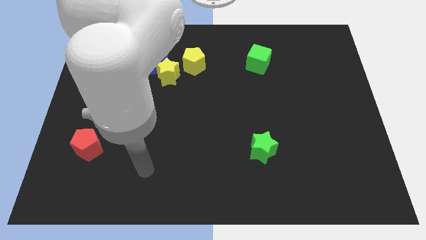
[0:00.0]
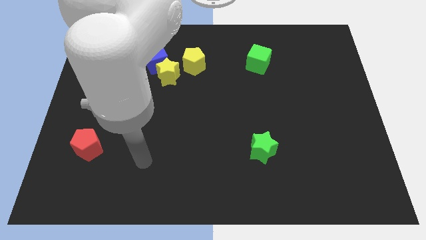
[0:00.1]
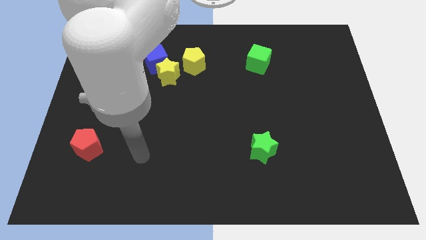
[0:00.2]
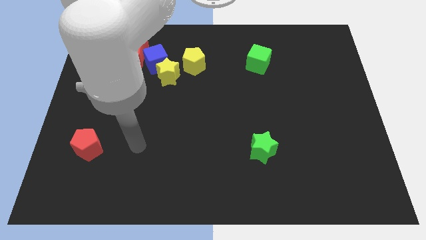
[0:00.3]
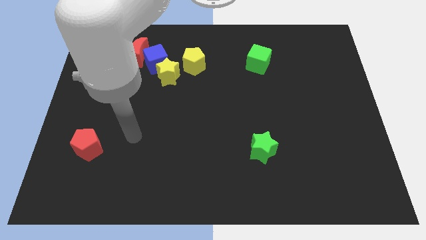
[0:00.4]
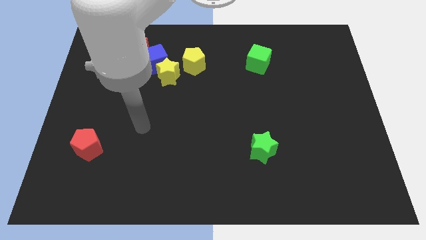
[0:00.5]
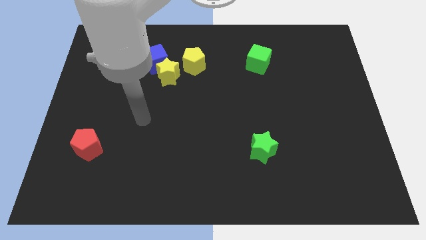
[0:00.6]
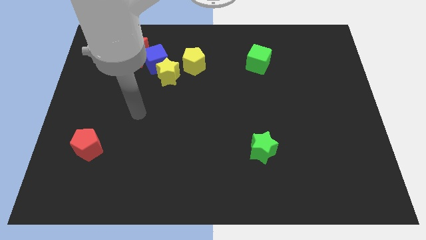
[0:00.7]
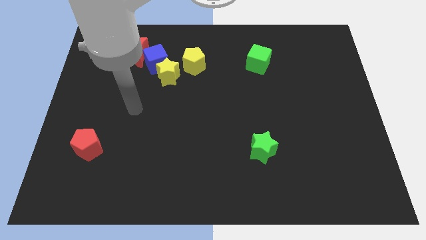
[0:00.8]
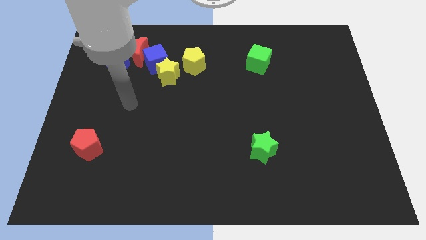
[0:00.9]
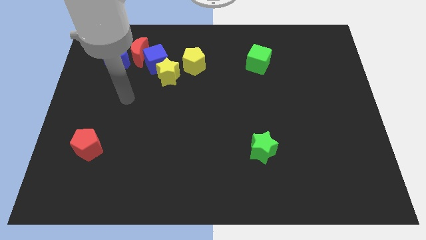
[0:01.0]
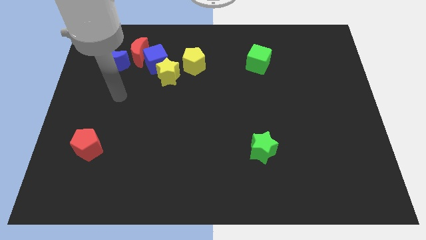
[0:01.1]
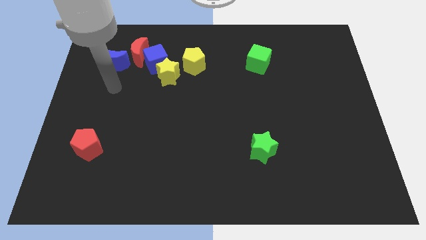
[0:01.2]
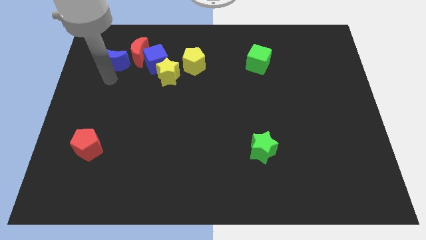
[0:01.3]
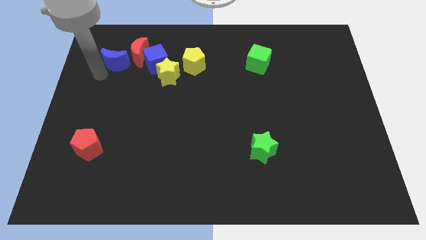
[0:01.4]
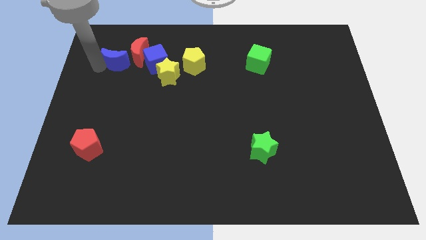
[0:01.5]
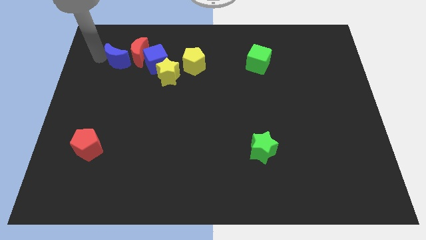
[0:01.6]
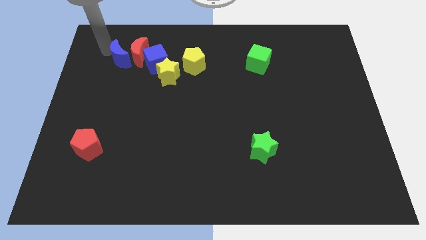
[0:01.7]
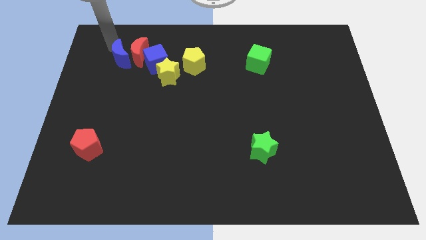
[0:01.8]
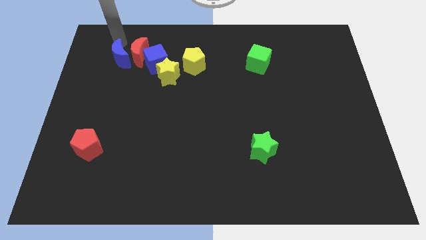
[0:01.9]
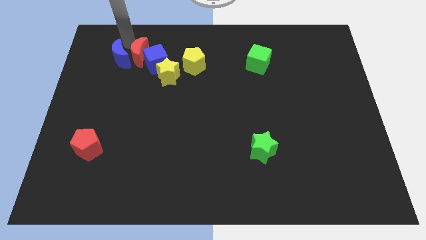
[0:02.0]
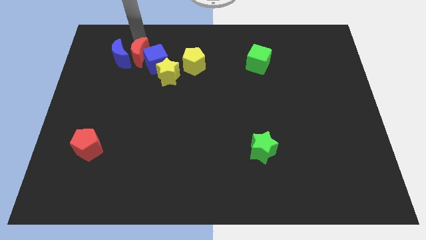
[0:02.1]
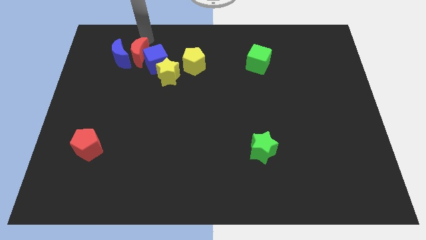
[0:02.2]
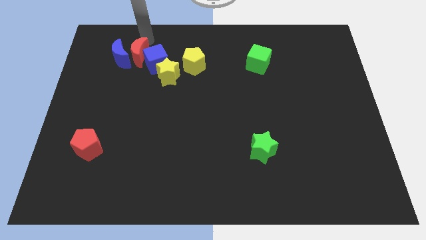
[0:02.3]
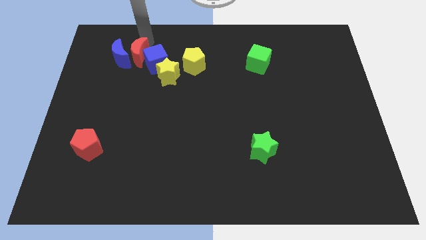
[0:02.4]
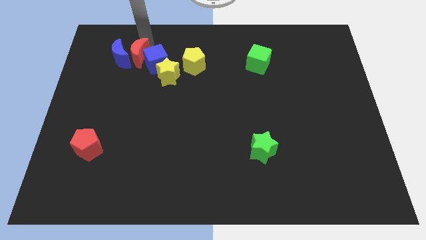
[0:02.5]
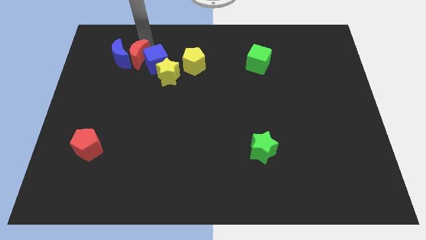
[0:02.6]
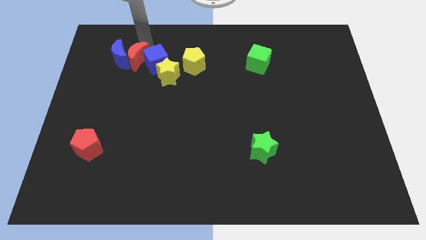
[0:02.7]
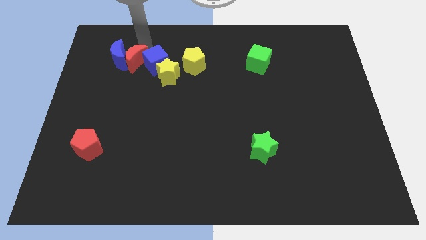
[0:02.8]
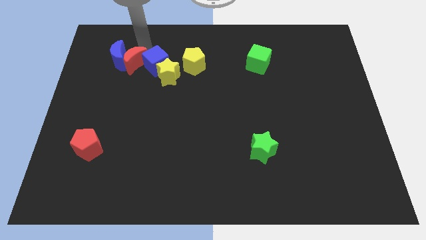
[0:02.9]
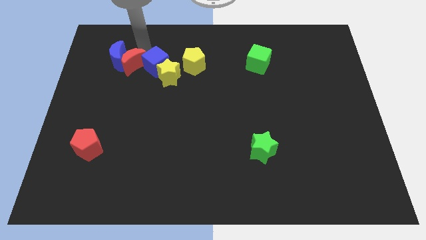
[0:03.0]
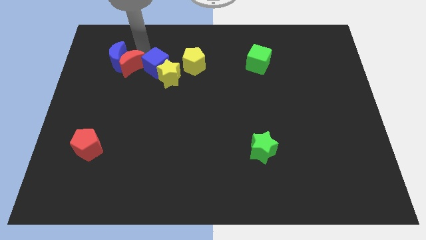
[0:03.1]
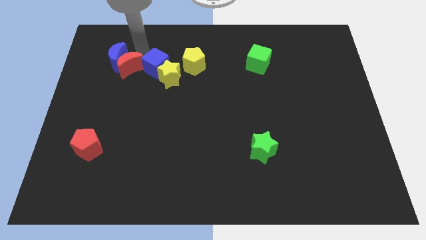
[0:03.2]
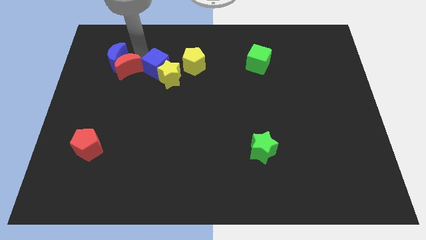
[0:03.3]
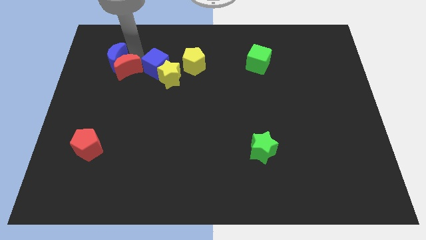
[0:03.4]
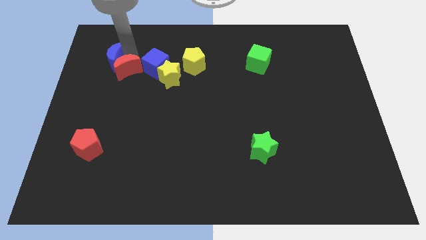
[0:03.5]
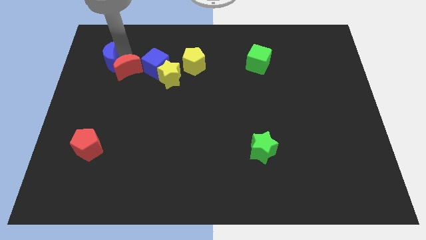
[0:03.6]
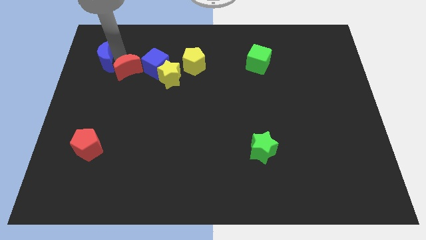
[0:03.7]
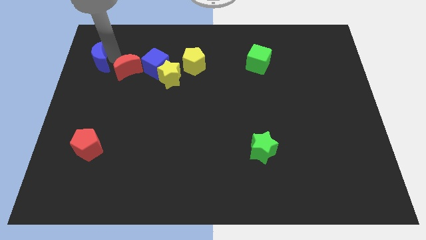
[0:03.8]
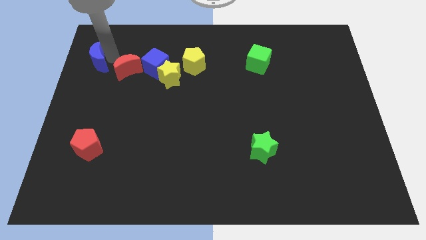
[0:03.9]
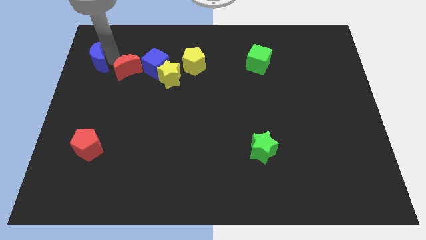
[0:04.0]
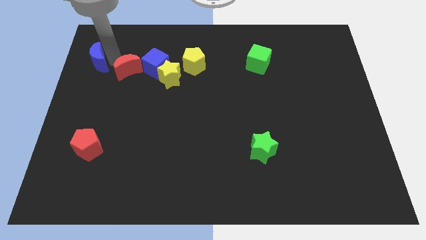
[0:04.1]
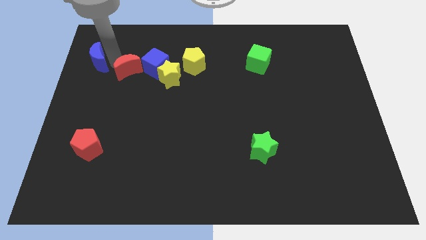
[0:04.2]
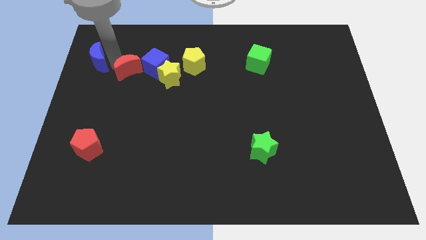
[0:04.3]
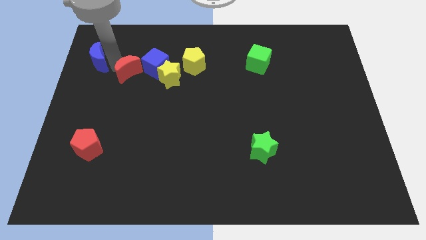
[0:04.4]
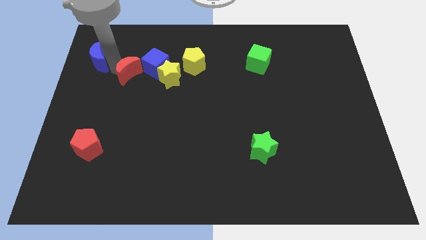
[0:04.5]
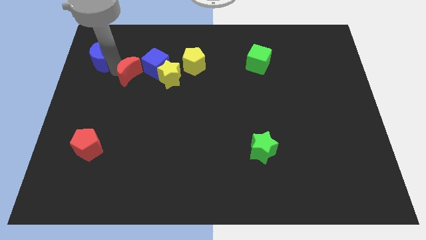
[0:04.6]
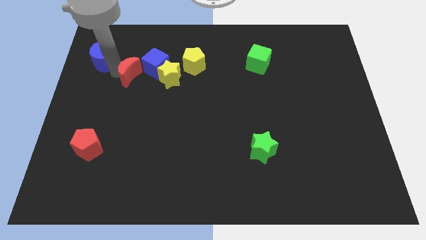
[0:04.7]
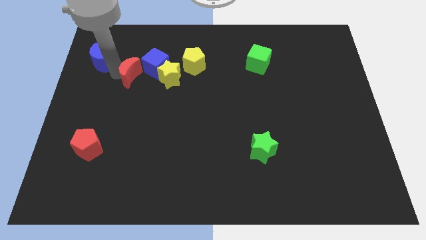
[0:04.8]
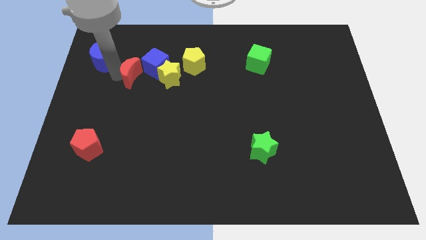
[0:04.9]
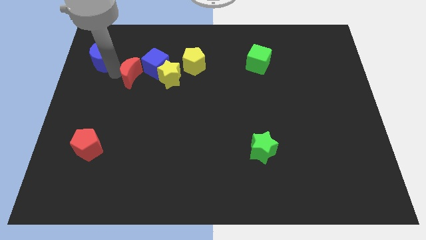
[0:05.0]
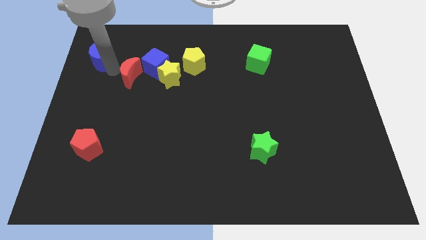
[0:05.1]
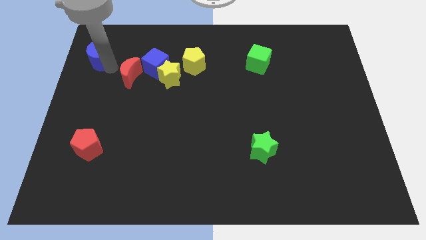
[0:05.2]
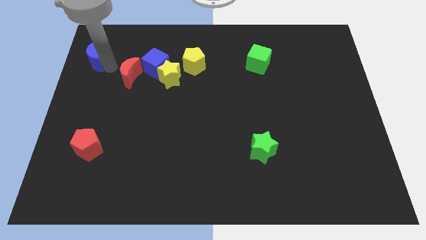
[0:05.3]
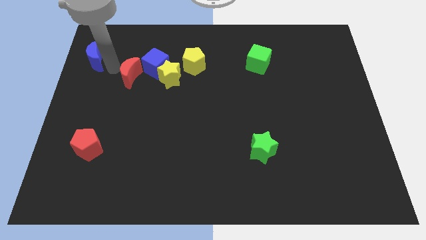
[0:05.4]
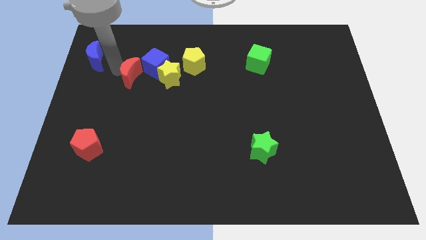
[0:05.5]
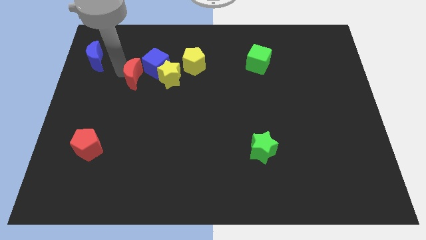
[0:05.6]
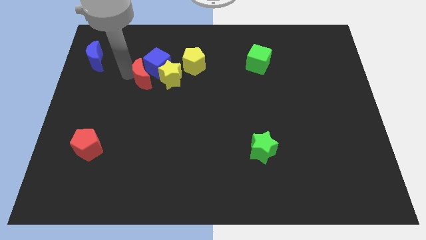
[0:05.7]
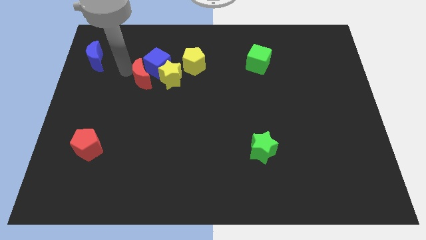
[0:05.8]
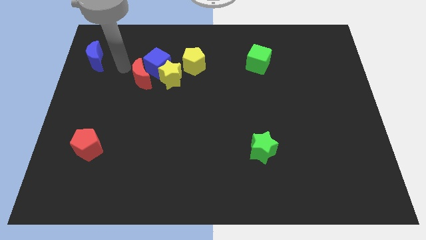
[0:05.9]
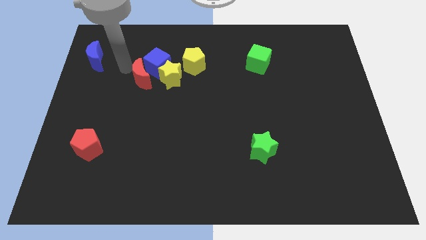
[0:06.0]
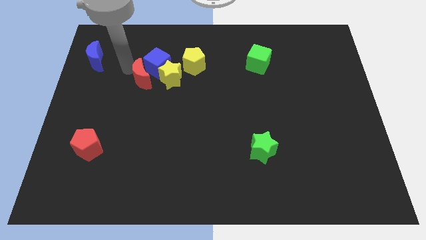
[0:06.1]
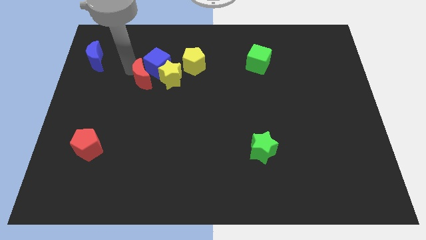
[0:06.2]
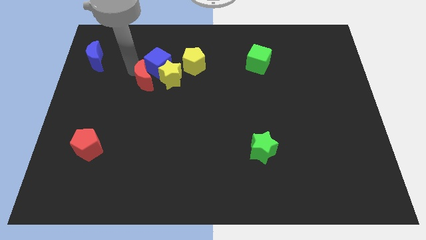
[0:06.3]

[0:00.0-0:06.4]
move the red moon diagonally down and to the right a bit

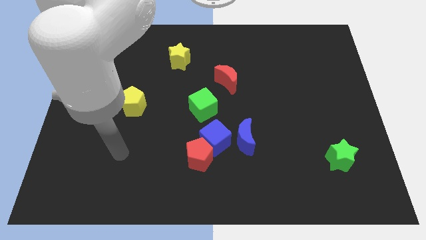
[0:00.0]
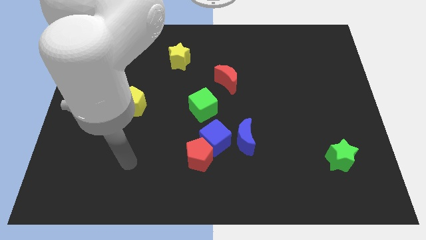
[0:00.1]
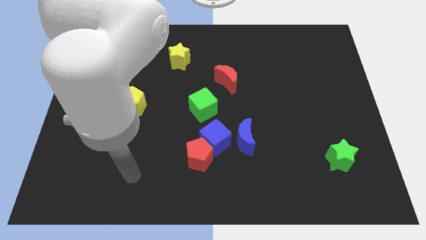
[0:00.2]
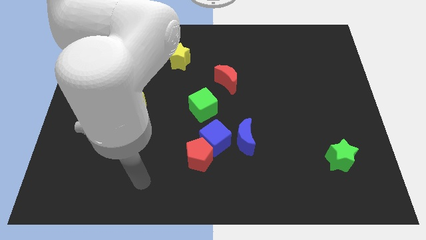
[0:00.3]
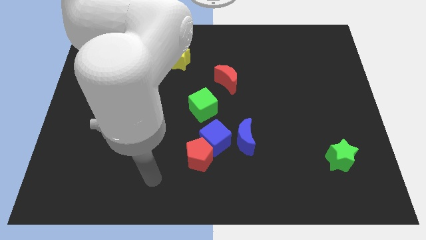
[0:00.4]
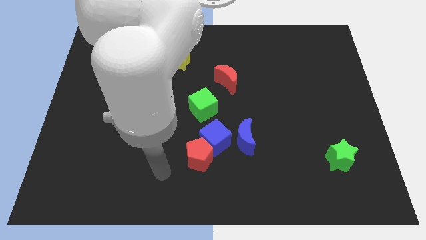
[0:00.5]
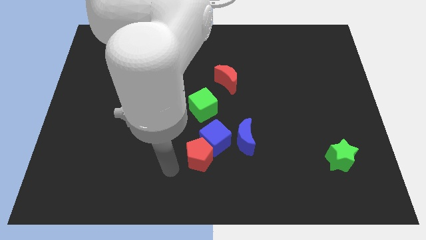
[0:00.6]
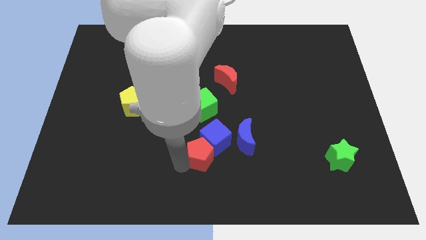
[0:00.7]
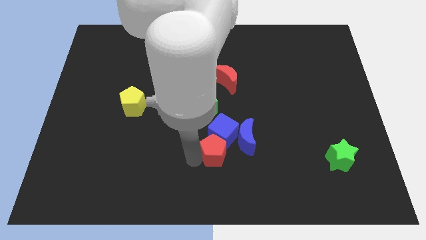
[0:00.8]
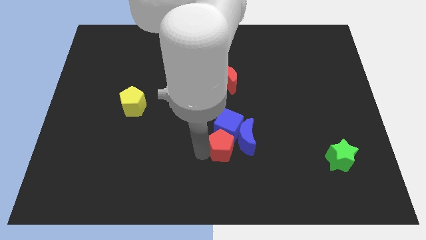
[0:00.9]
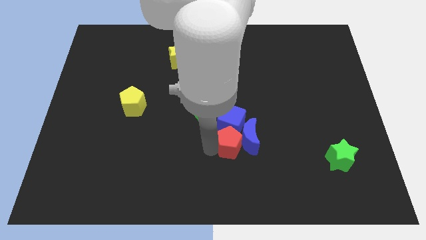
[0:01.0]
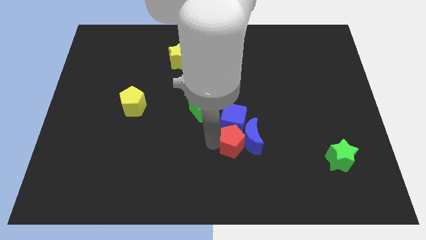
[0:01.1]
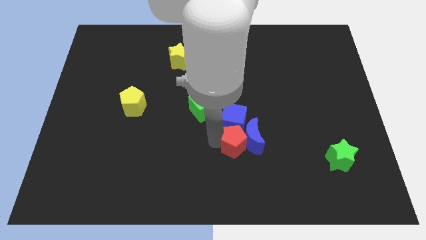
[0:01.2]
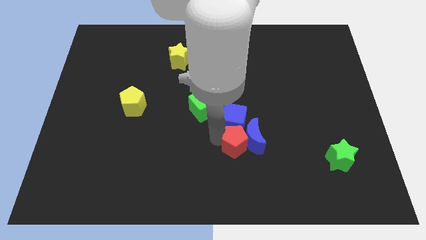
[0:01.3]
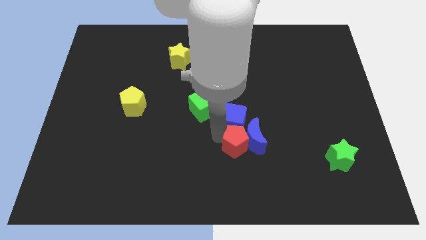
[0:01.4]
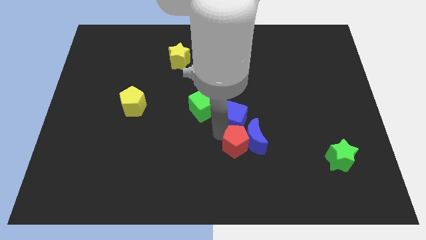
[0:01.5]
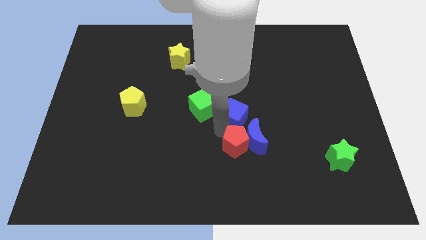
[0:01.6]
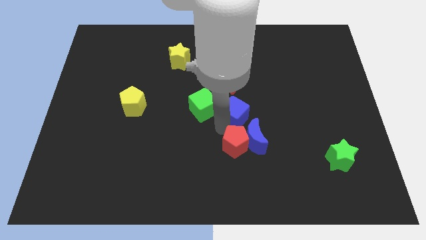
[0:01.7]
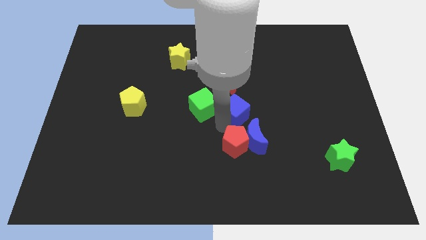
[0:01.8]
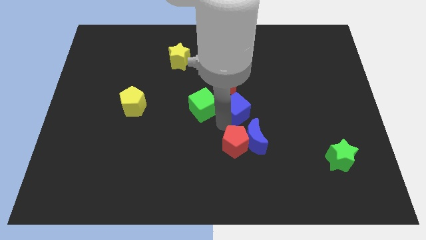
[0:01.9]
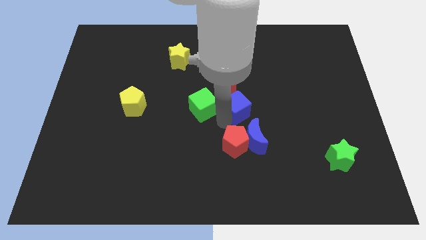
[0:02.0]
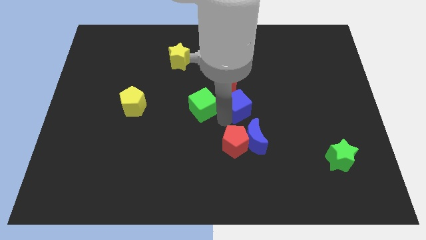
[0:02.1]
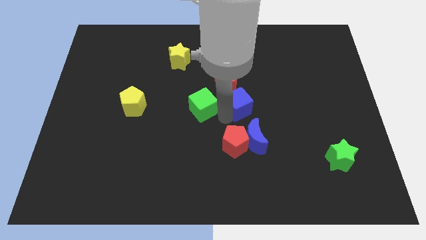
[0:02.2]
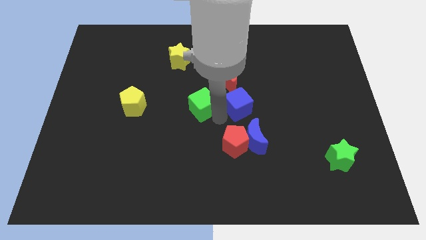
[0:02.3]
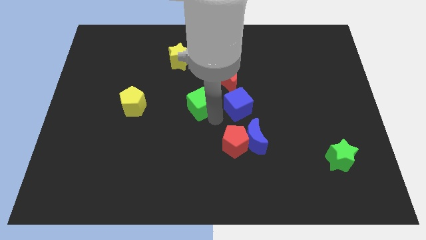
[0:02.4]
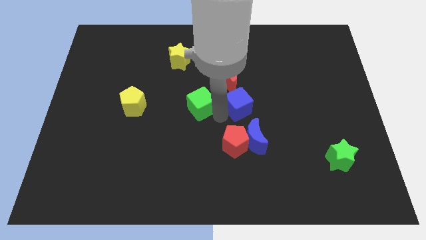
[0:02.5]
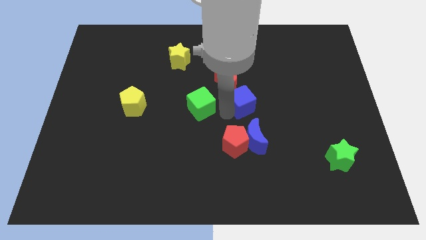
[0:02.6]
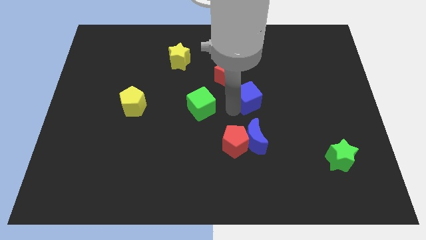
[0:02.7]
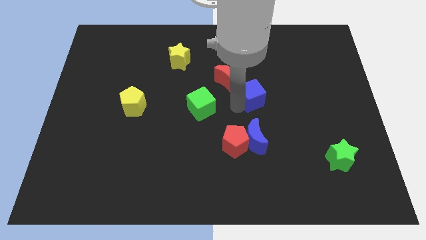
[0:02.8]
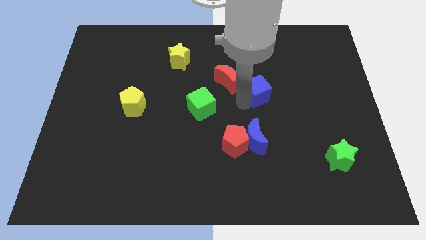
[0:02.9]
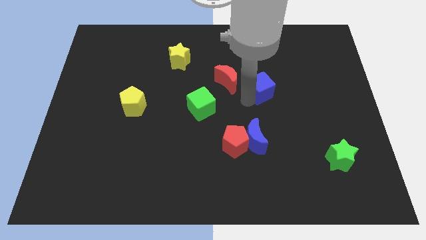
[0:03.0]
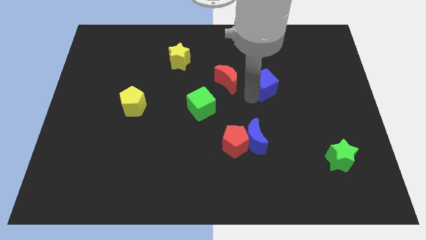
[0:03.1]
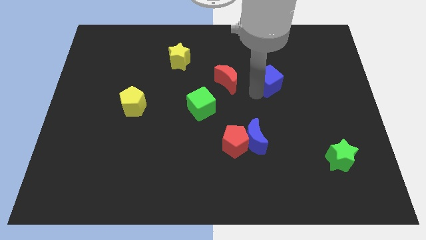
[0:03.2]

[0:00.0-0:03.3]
push the blue cube up and then to the right
